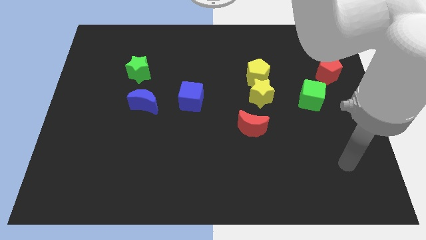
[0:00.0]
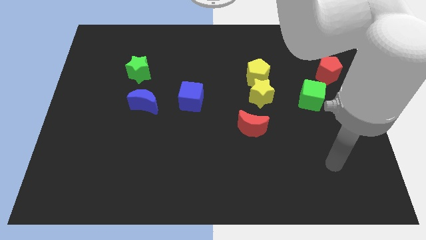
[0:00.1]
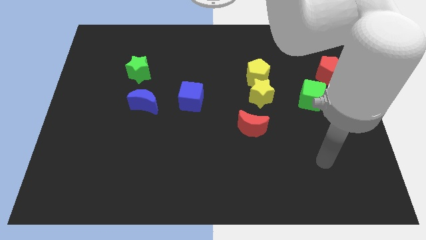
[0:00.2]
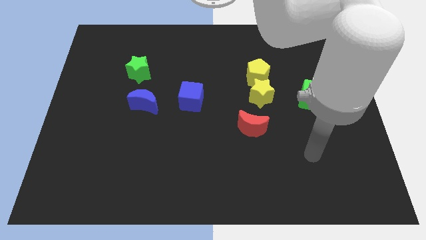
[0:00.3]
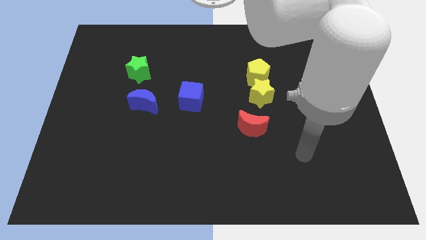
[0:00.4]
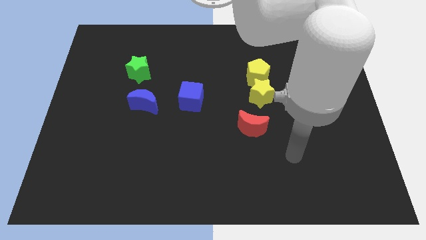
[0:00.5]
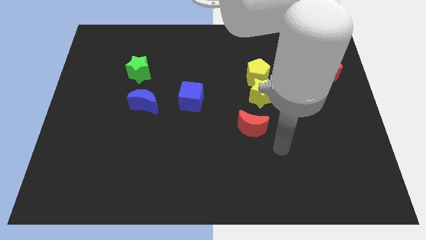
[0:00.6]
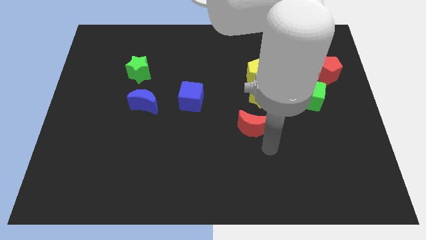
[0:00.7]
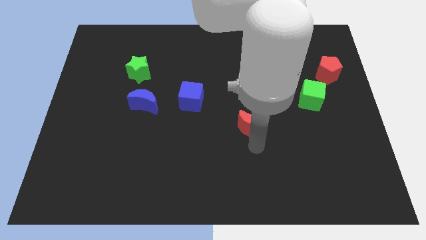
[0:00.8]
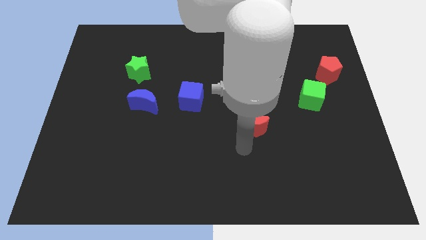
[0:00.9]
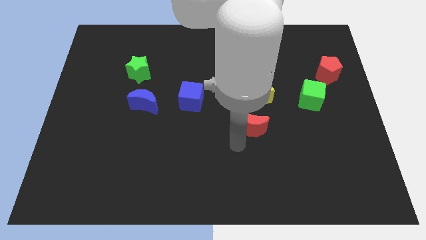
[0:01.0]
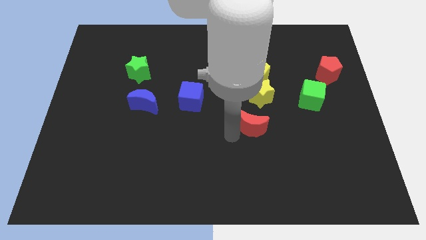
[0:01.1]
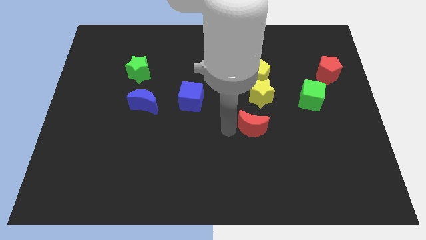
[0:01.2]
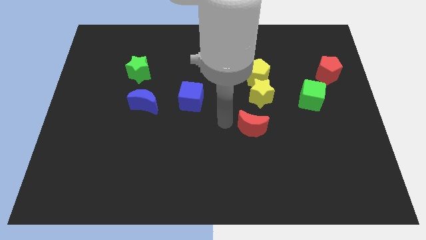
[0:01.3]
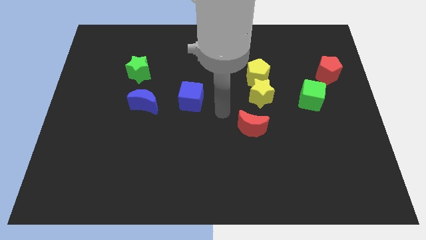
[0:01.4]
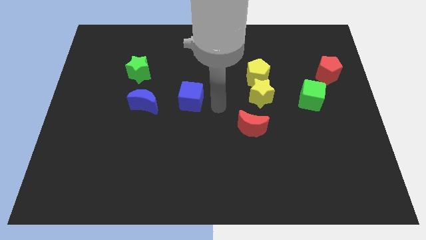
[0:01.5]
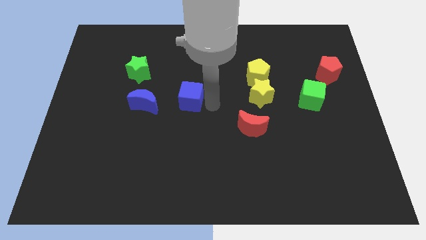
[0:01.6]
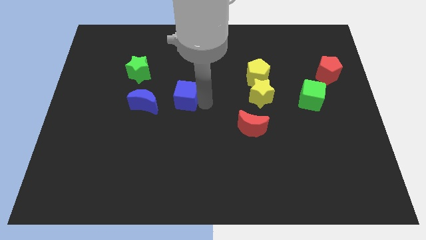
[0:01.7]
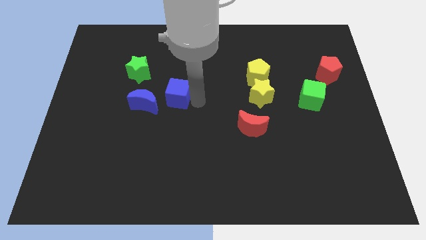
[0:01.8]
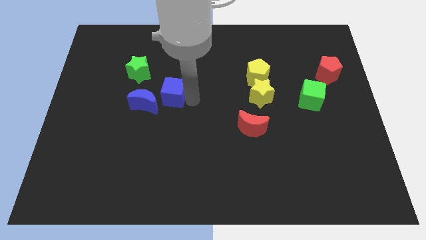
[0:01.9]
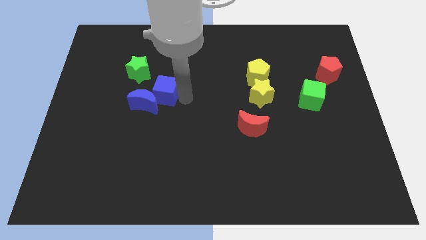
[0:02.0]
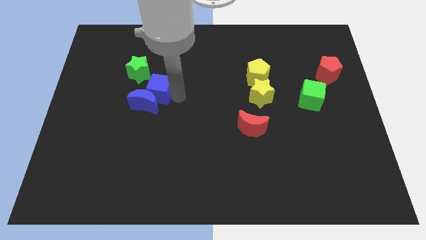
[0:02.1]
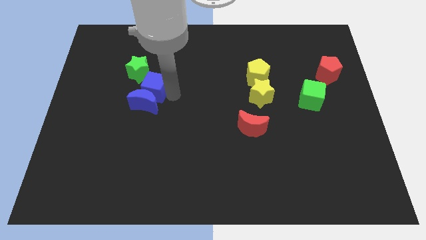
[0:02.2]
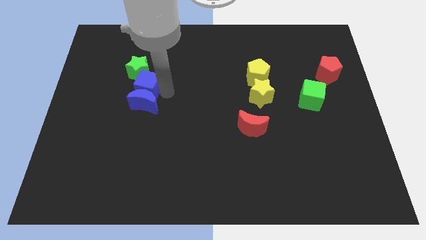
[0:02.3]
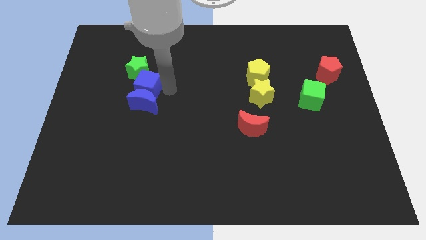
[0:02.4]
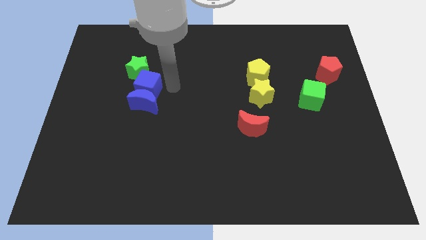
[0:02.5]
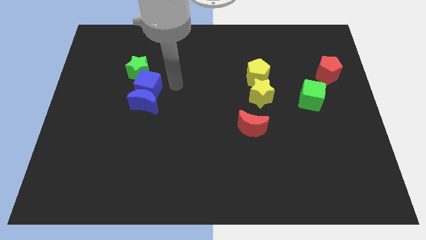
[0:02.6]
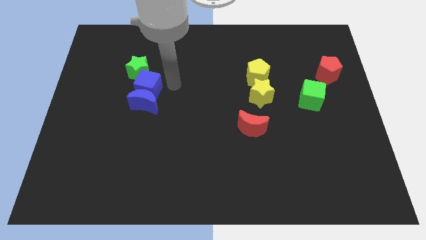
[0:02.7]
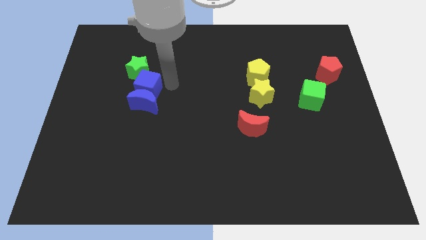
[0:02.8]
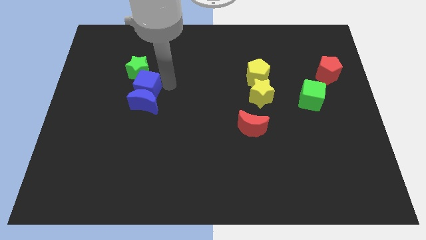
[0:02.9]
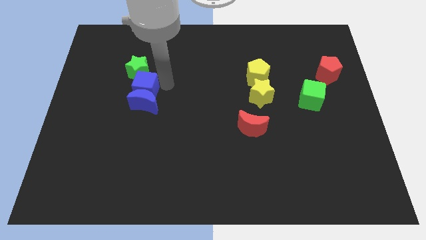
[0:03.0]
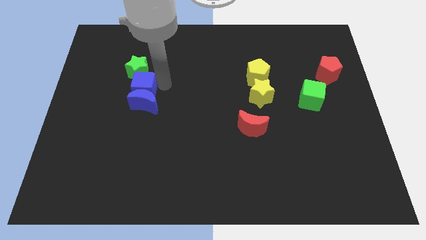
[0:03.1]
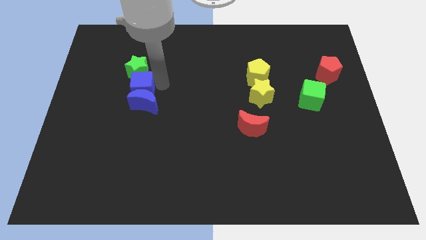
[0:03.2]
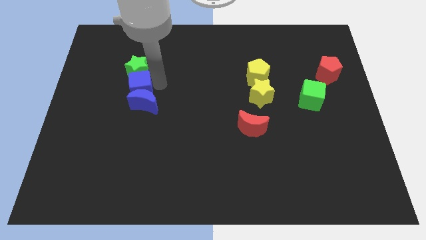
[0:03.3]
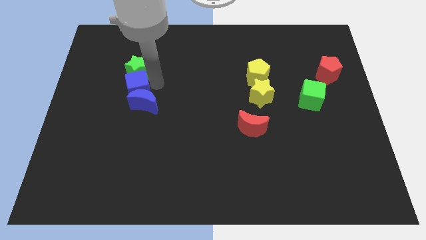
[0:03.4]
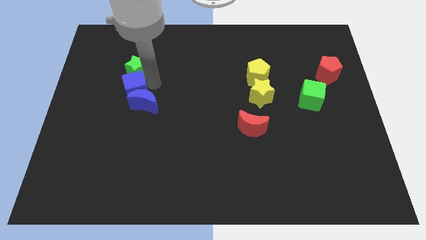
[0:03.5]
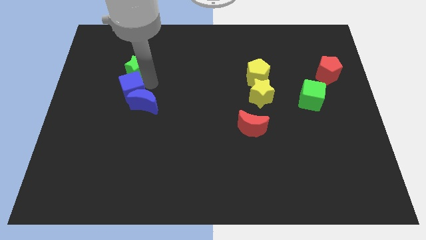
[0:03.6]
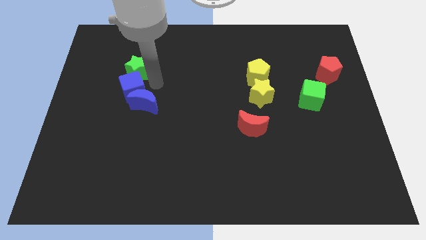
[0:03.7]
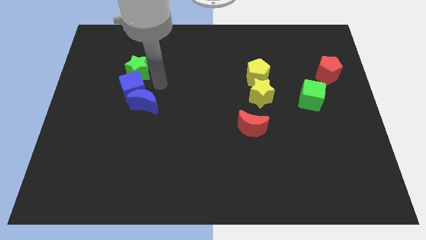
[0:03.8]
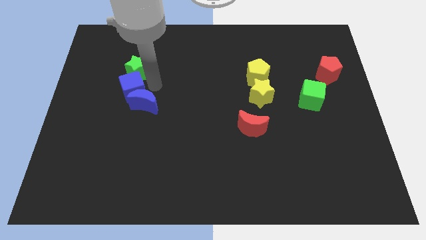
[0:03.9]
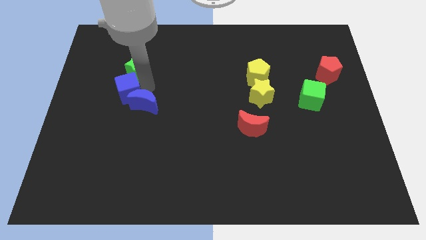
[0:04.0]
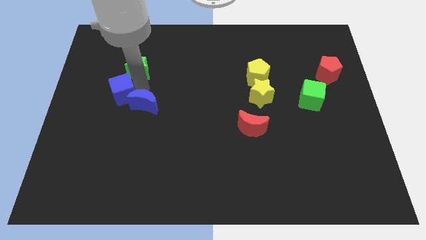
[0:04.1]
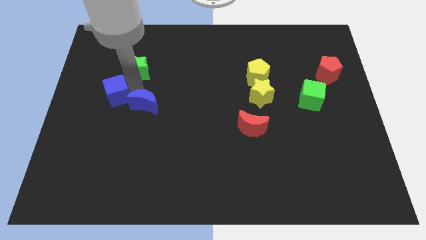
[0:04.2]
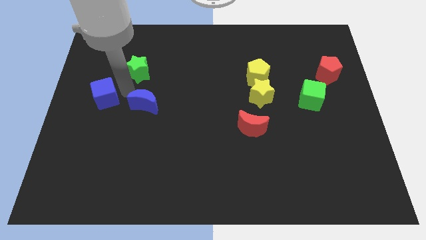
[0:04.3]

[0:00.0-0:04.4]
put the blue cube to the left side

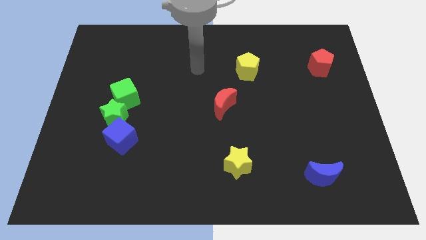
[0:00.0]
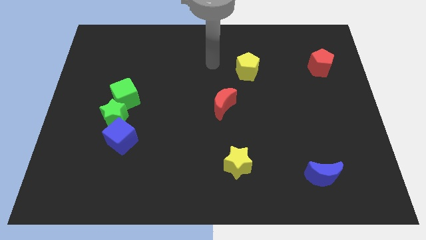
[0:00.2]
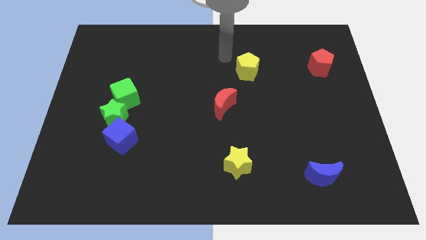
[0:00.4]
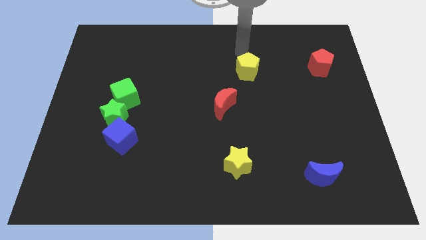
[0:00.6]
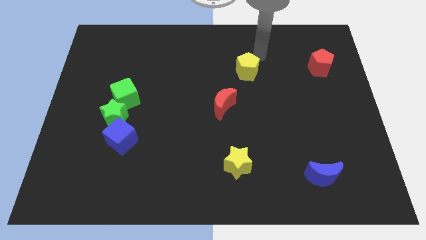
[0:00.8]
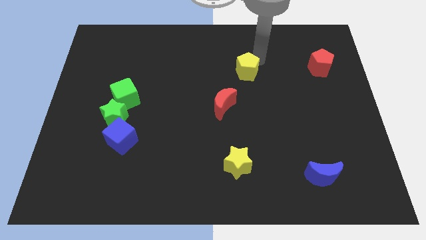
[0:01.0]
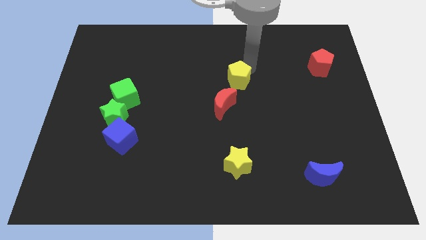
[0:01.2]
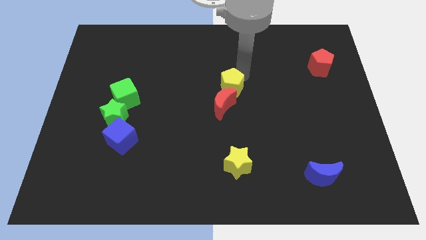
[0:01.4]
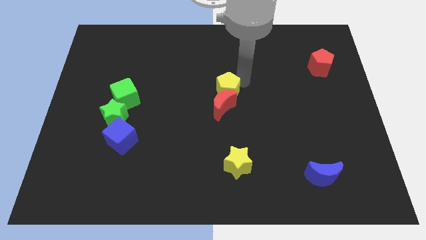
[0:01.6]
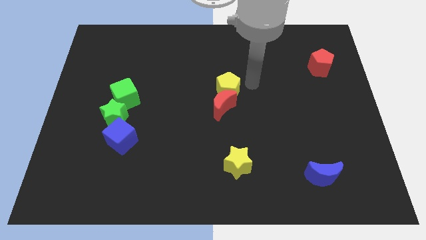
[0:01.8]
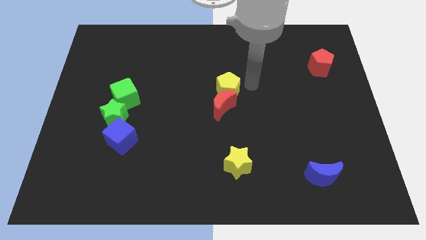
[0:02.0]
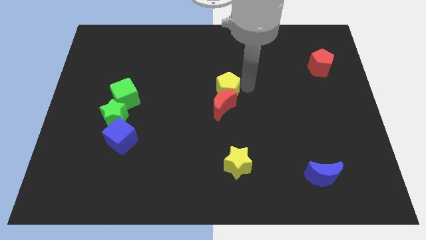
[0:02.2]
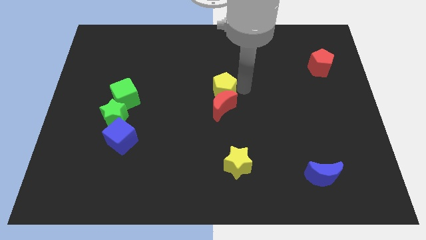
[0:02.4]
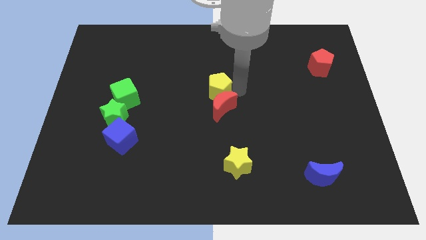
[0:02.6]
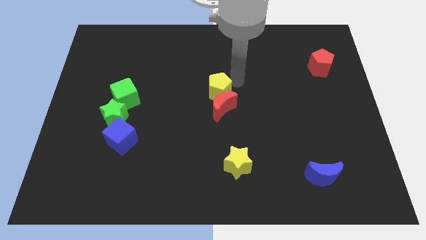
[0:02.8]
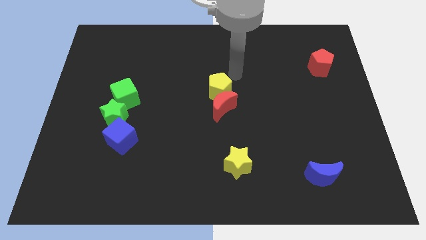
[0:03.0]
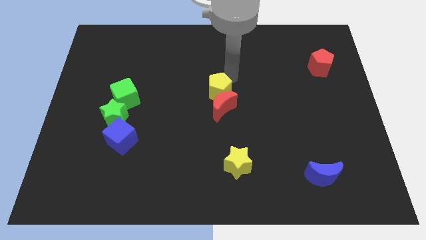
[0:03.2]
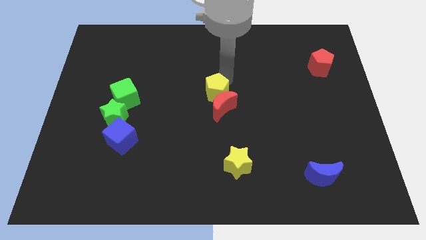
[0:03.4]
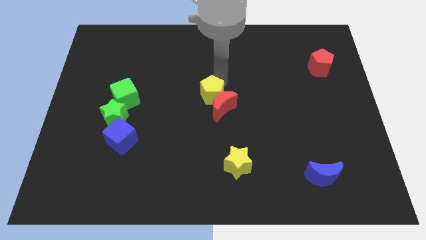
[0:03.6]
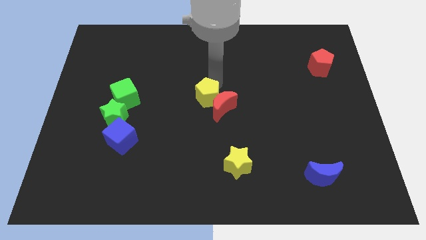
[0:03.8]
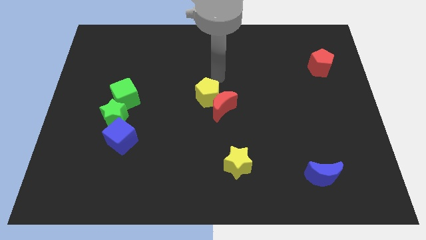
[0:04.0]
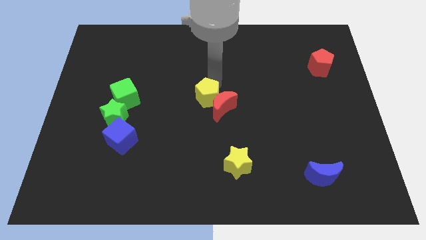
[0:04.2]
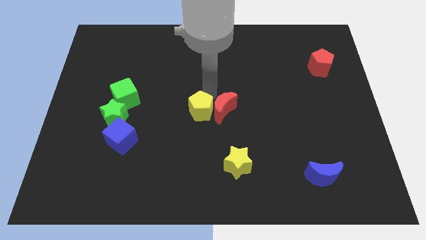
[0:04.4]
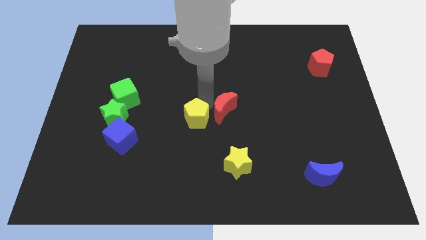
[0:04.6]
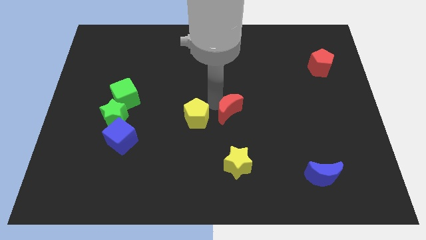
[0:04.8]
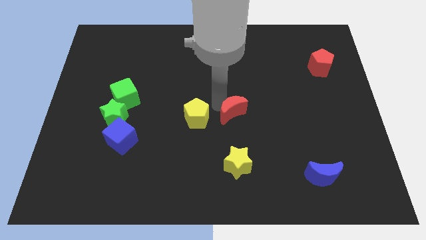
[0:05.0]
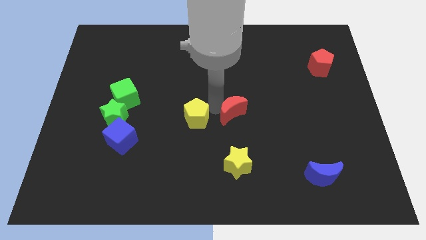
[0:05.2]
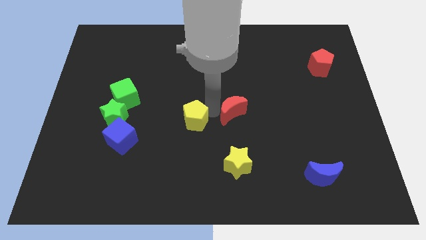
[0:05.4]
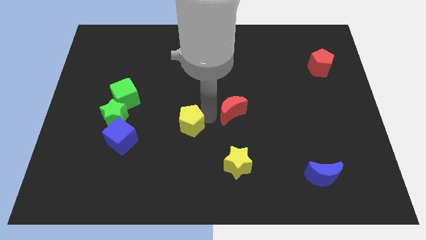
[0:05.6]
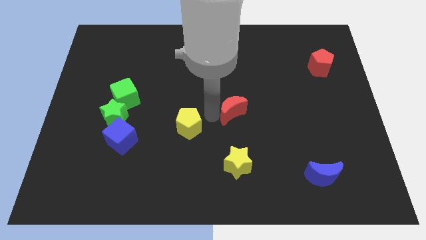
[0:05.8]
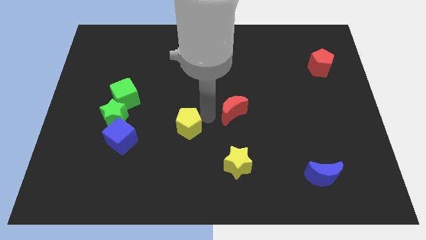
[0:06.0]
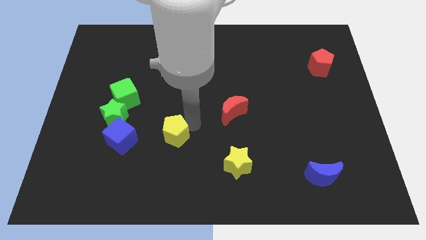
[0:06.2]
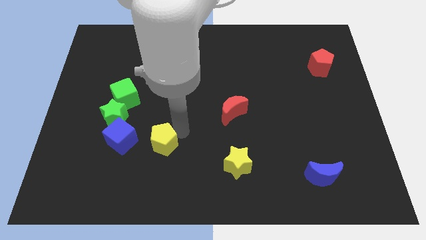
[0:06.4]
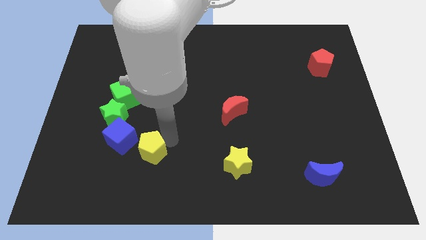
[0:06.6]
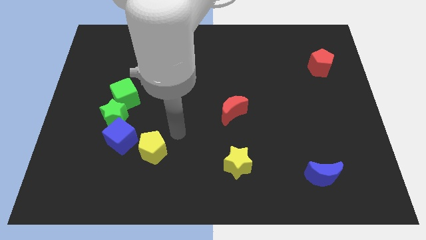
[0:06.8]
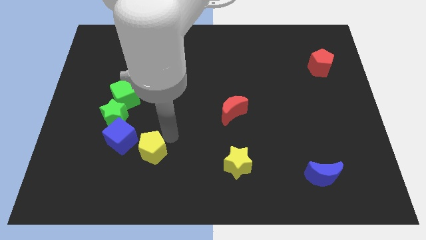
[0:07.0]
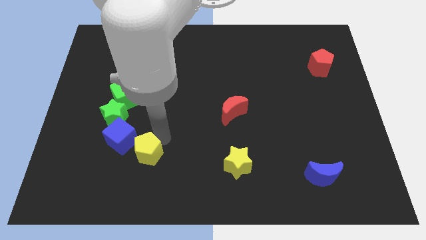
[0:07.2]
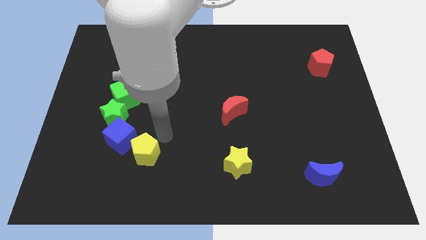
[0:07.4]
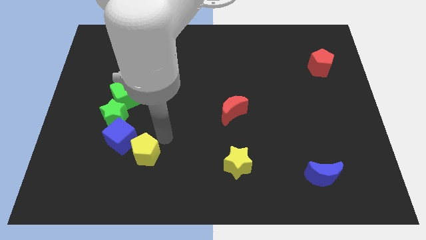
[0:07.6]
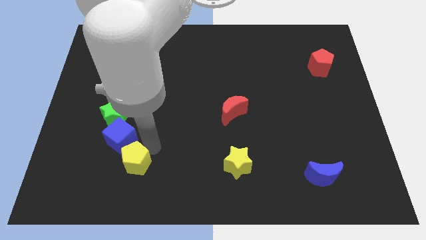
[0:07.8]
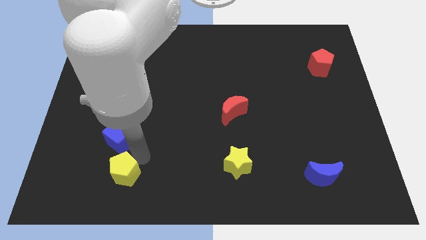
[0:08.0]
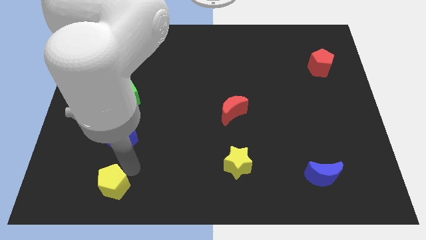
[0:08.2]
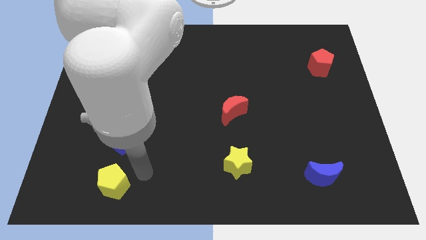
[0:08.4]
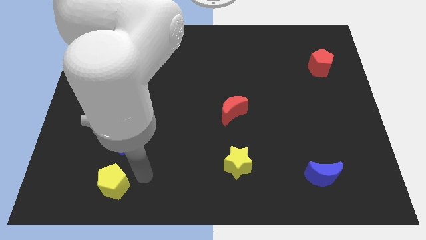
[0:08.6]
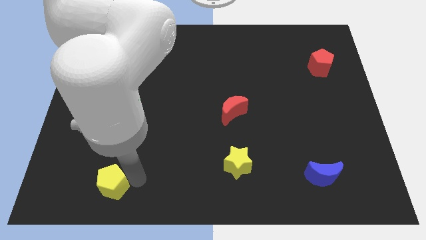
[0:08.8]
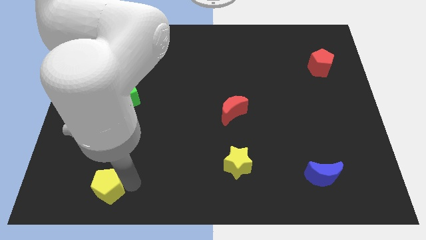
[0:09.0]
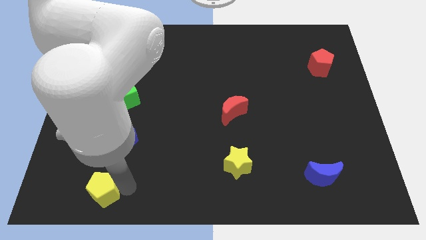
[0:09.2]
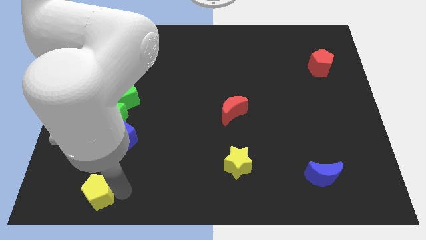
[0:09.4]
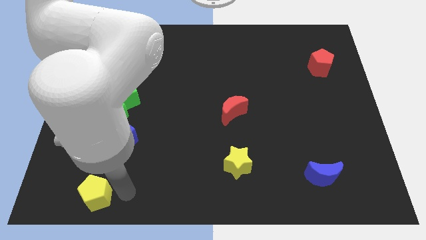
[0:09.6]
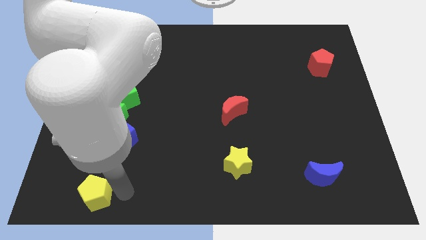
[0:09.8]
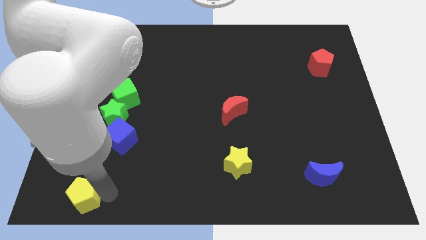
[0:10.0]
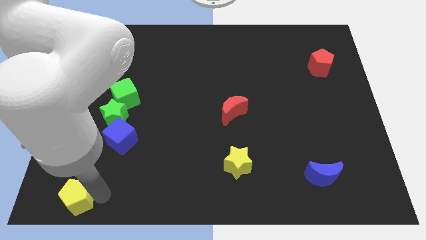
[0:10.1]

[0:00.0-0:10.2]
push the yellow pentagon to the bottom left of the board
